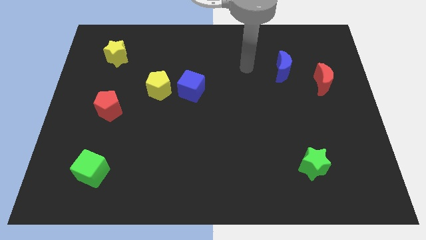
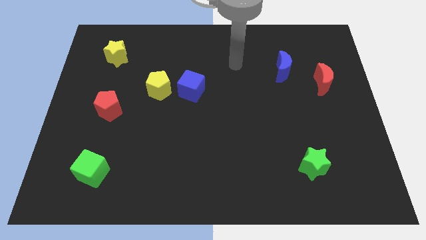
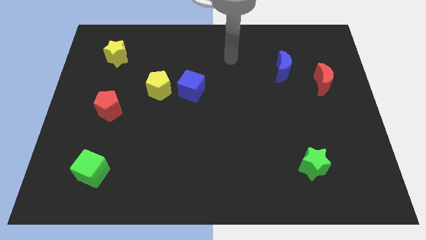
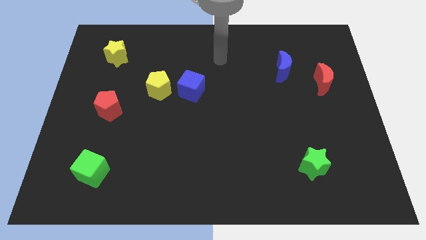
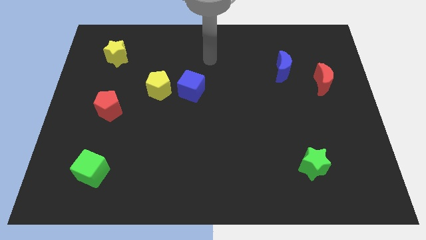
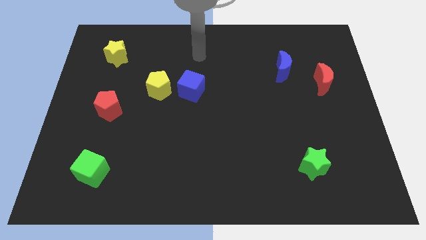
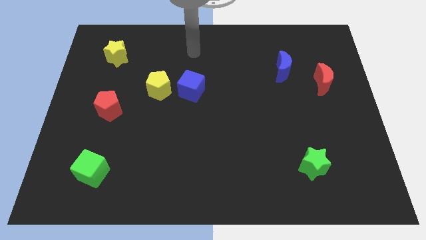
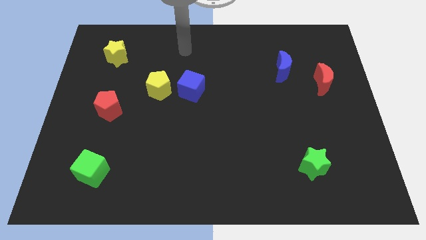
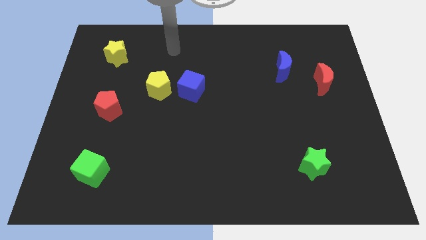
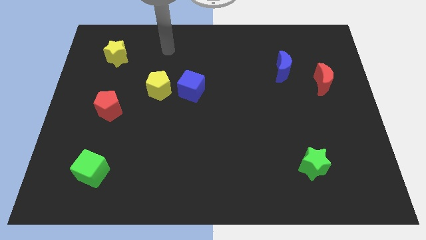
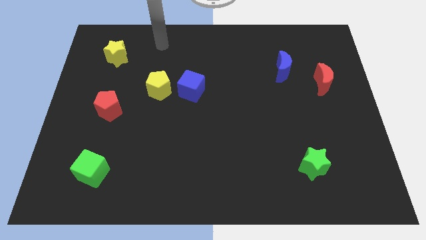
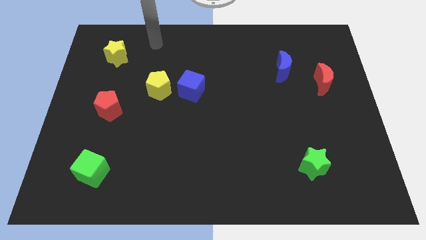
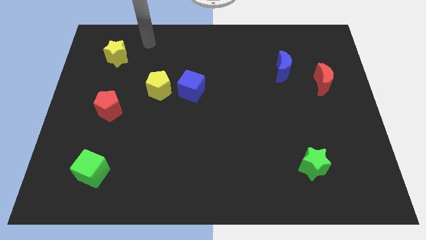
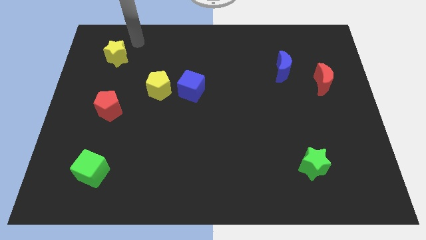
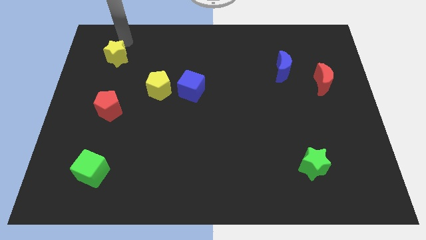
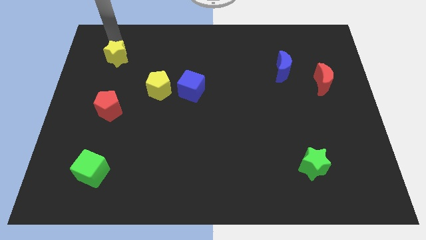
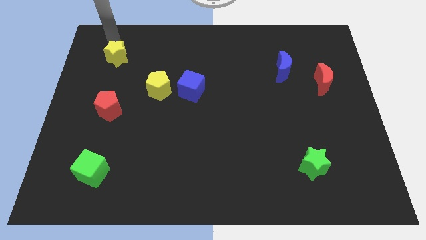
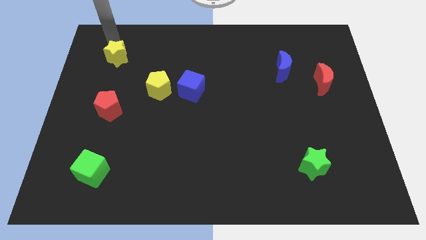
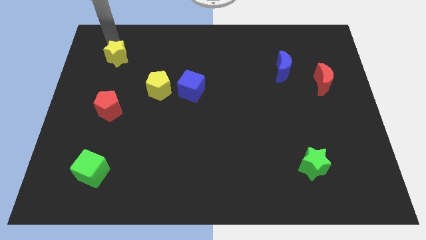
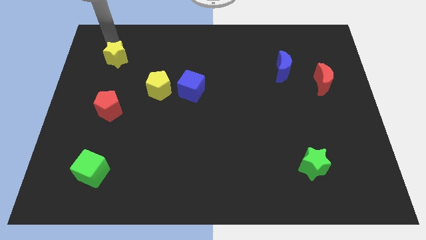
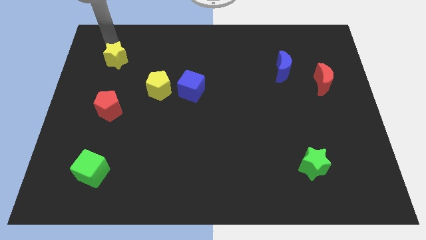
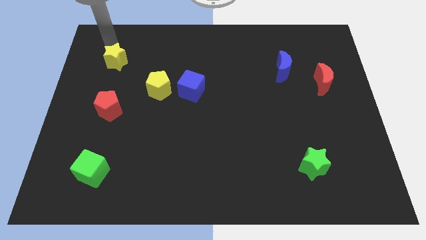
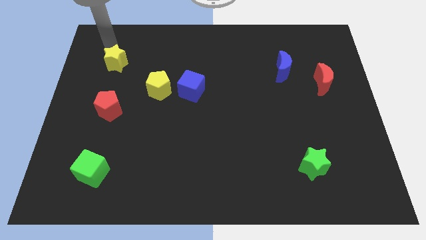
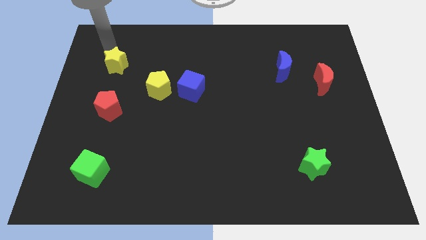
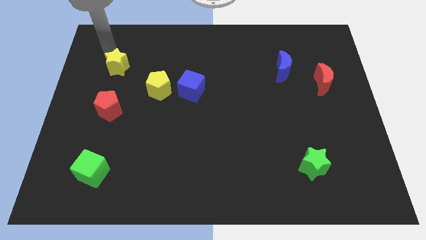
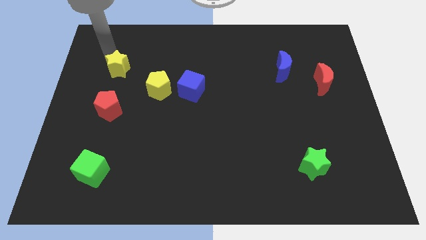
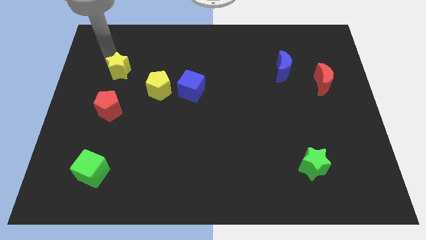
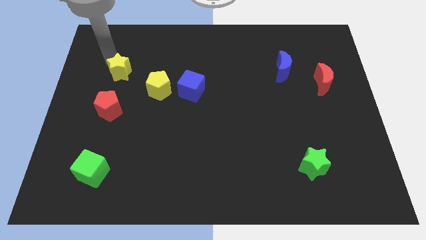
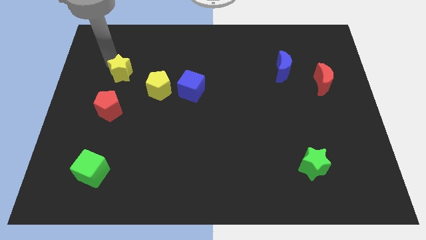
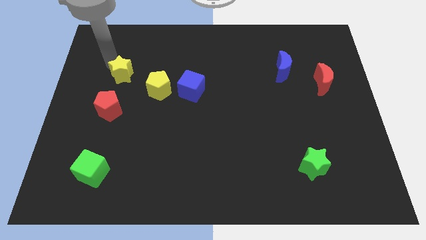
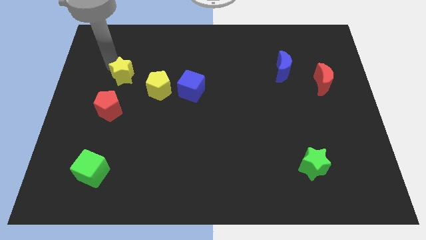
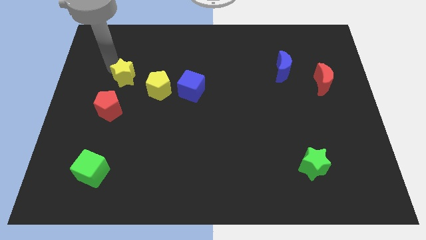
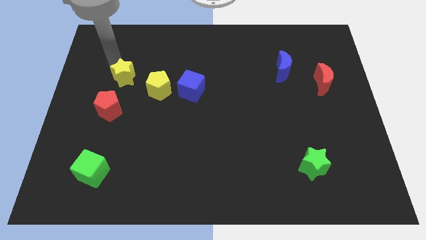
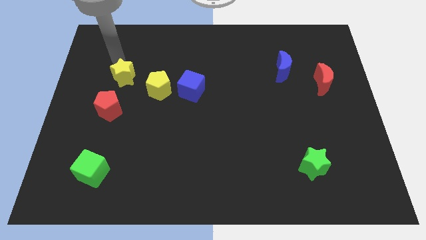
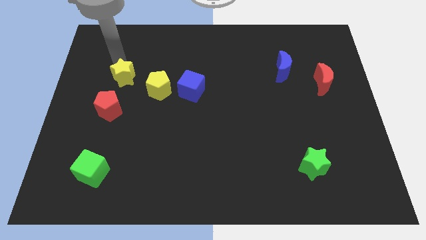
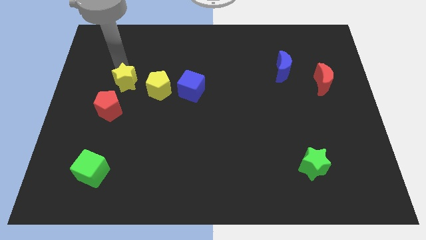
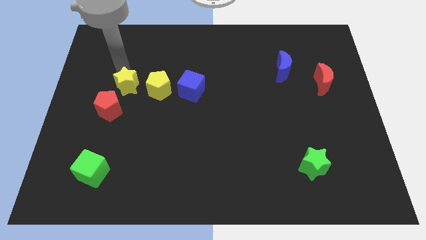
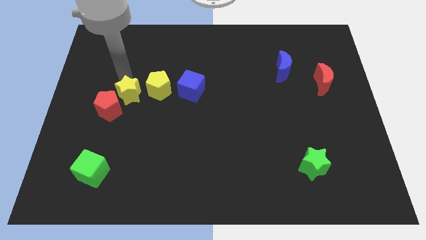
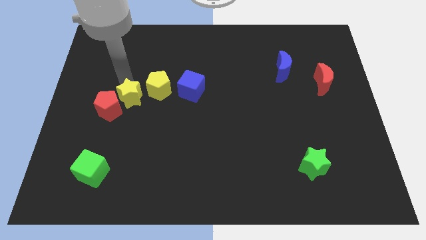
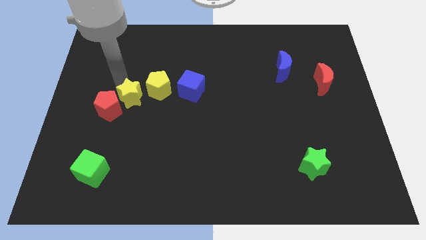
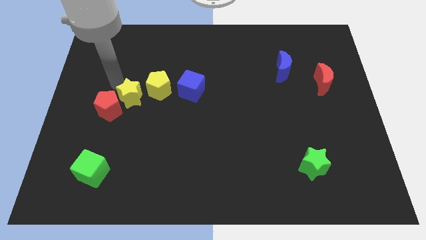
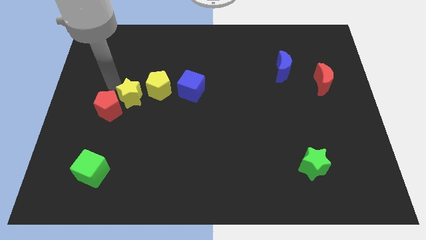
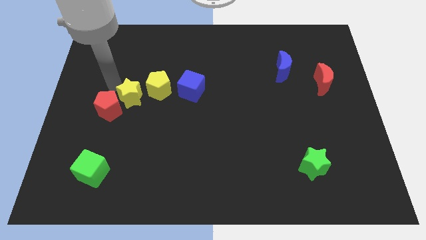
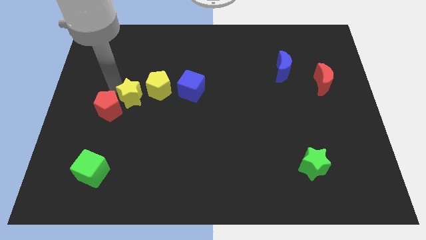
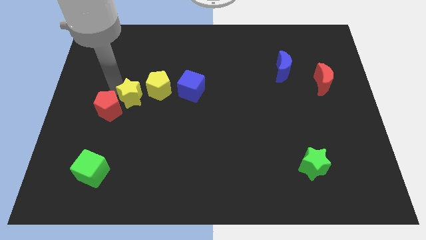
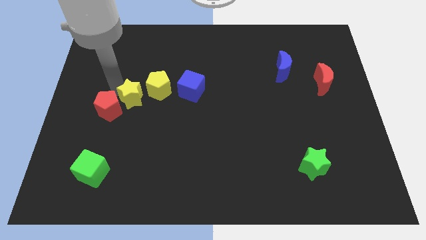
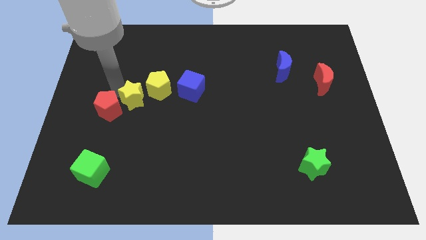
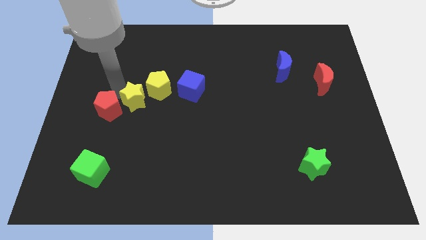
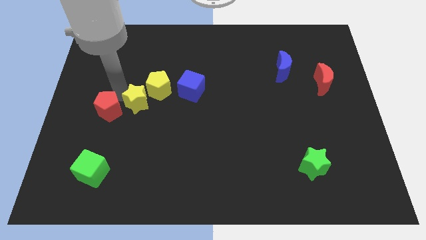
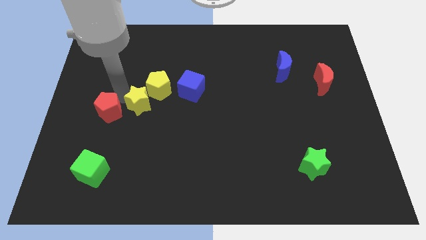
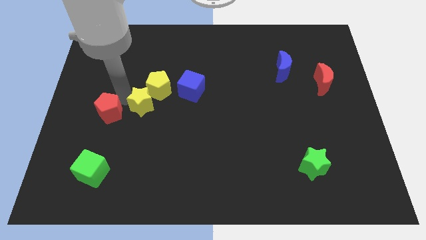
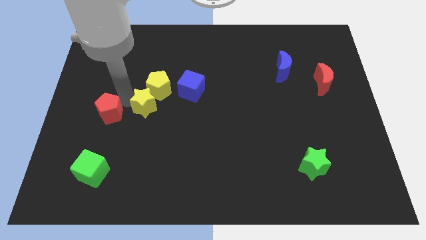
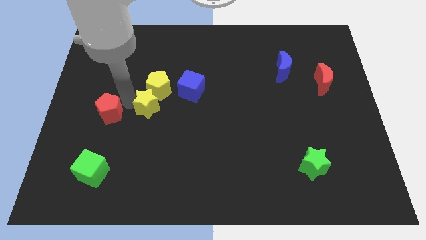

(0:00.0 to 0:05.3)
put the yellow star diagonally down and to the left of the blue cube

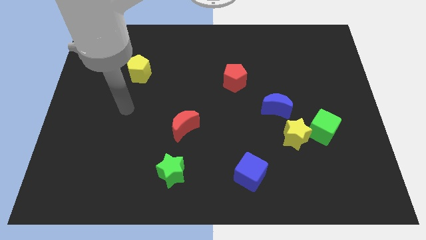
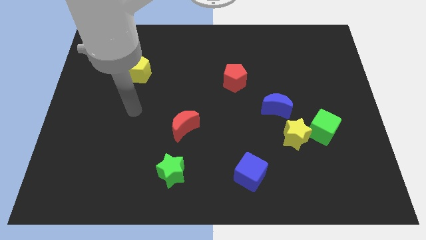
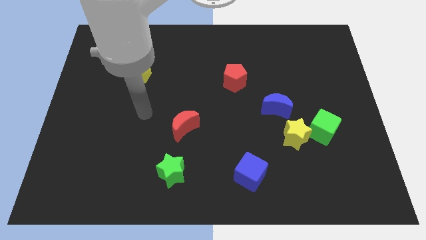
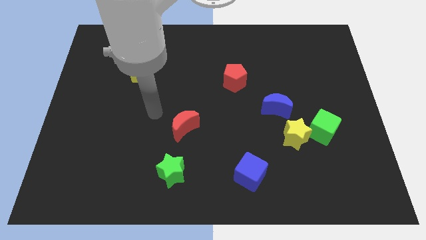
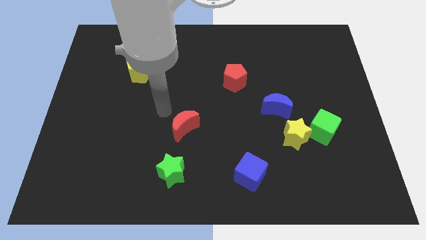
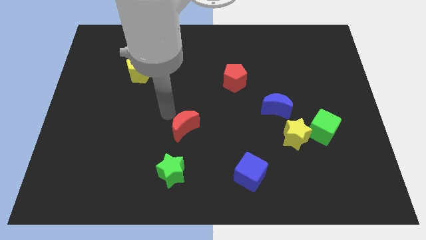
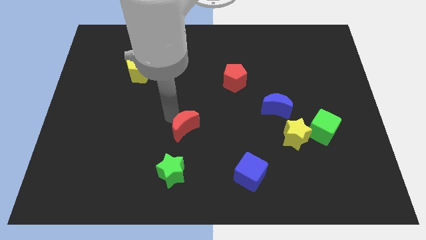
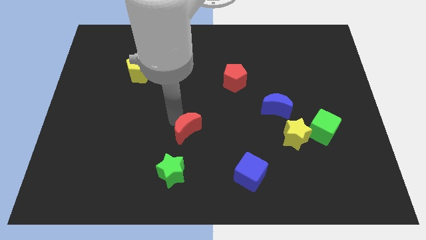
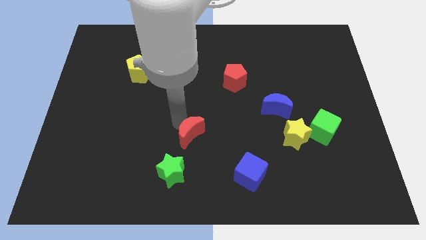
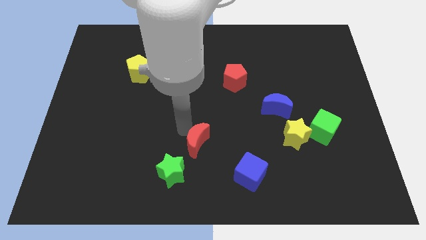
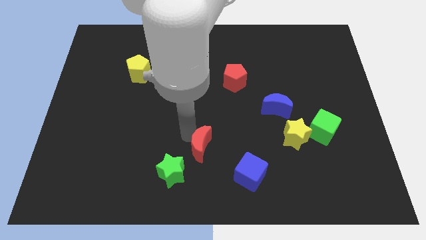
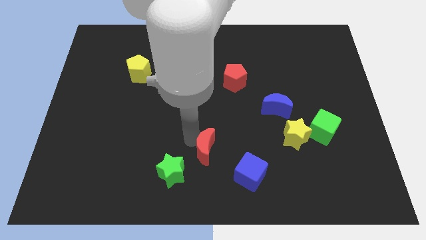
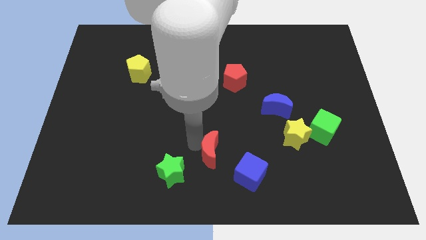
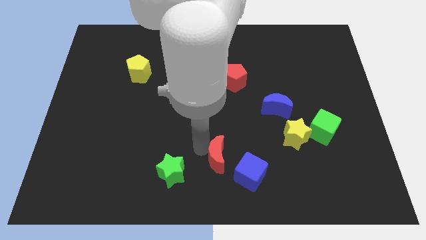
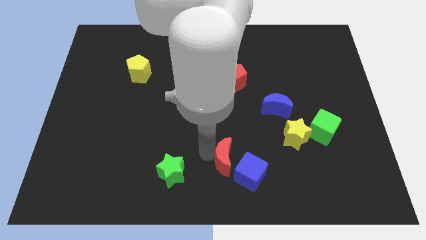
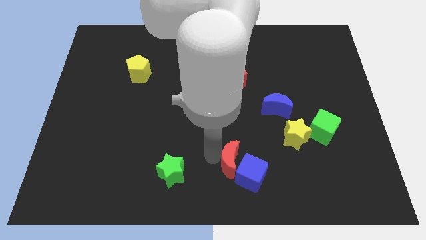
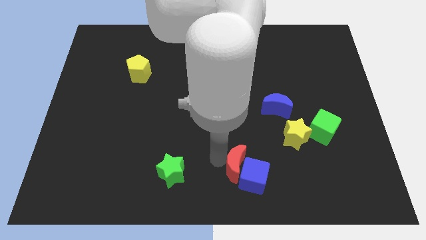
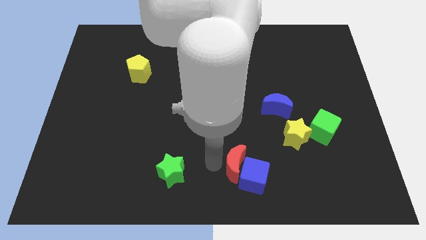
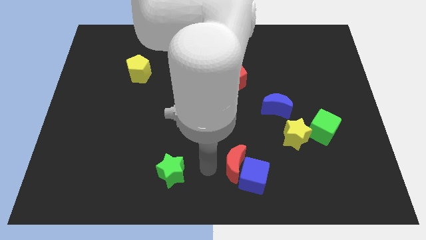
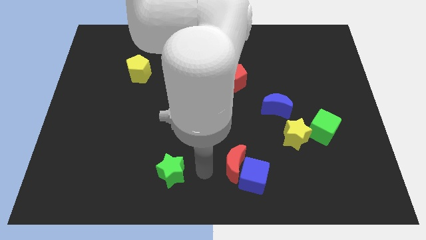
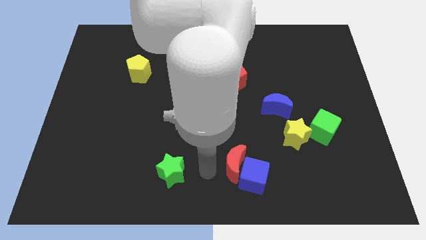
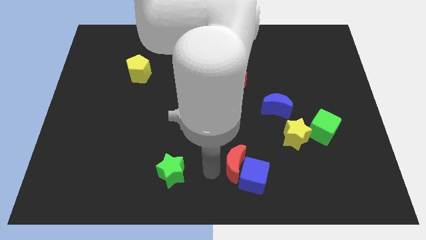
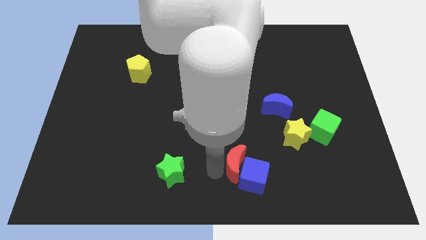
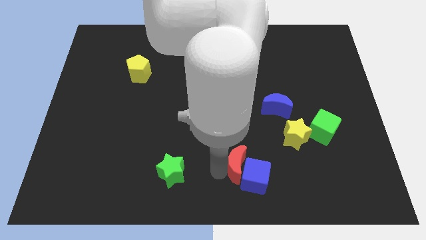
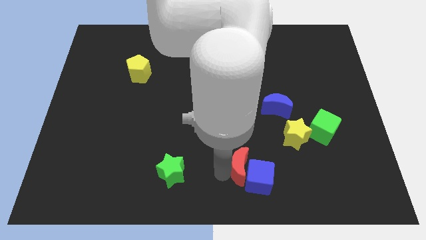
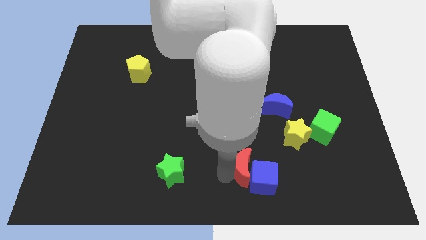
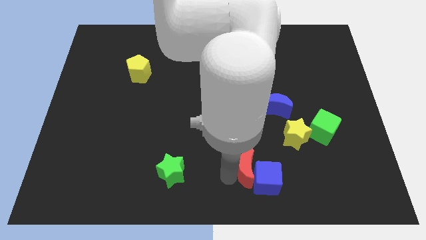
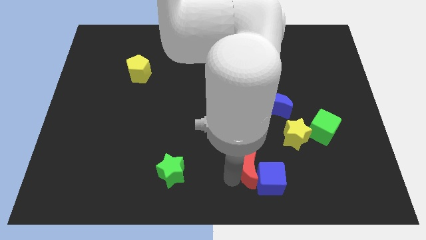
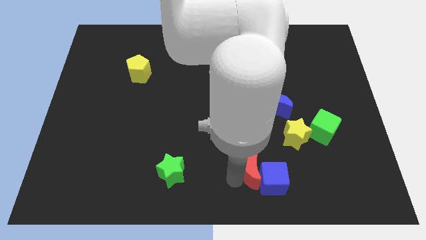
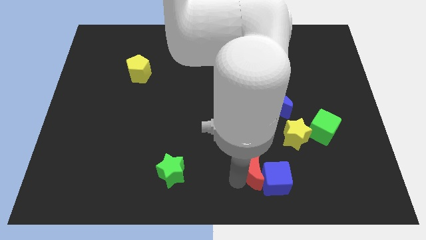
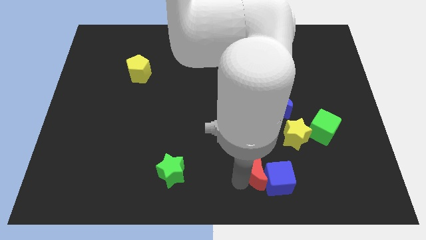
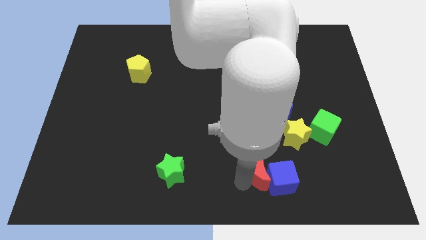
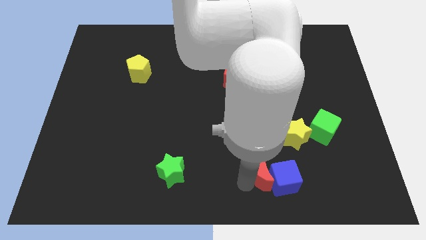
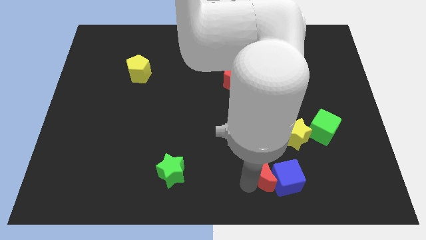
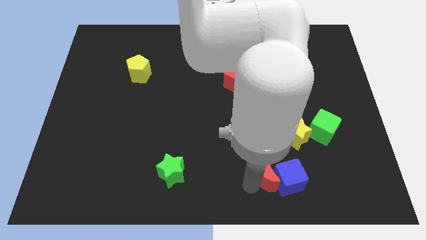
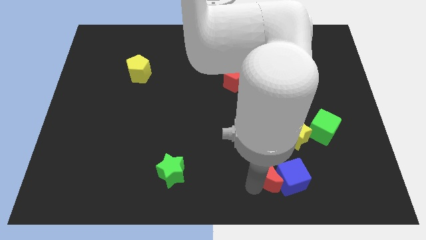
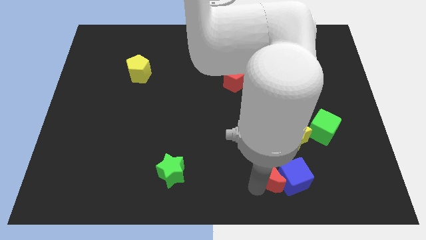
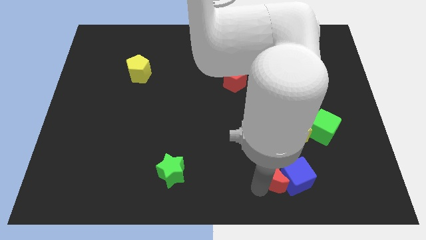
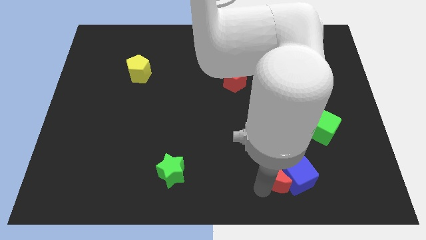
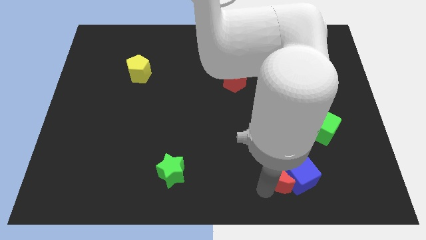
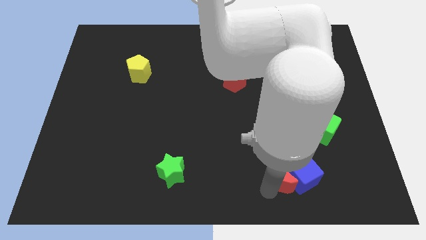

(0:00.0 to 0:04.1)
move the red moon to the bottom side of the yellow star
